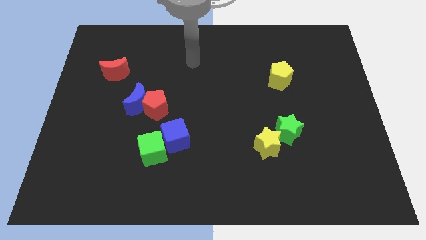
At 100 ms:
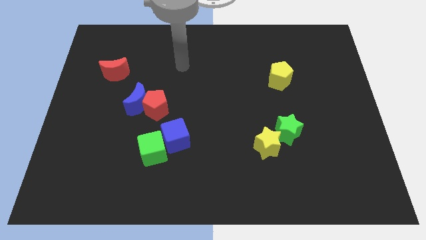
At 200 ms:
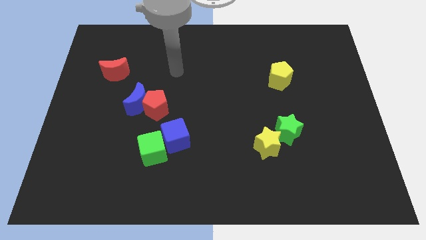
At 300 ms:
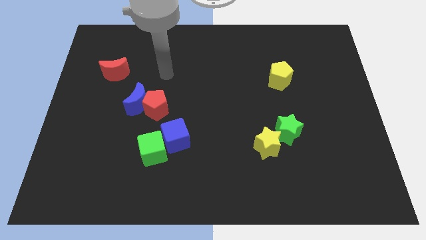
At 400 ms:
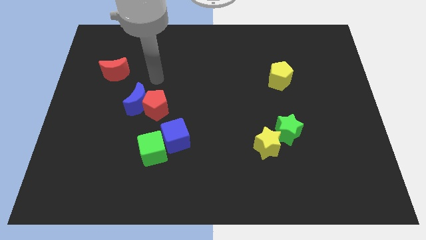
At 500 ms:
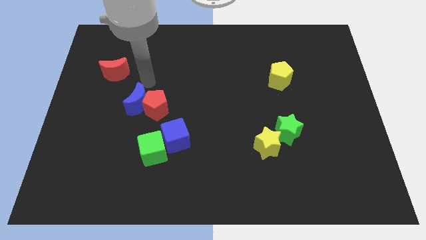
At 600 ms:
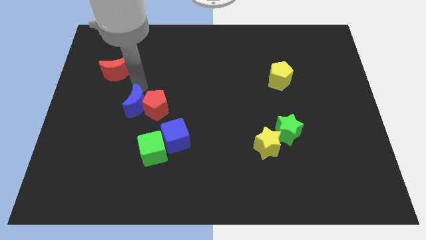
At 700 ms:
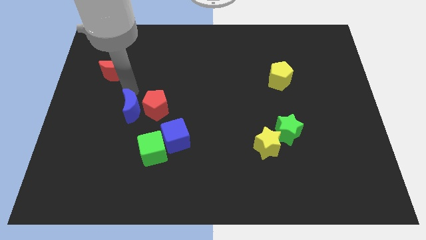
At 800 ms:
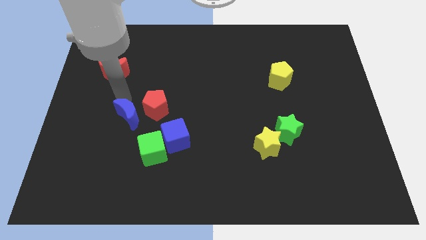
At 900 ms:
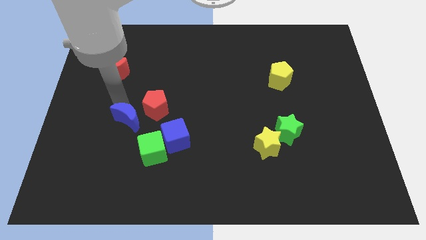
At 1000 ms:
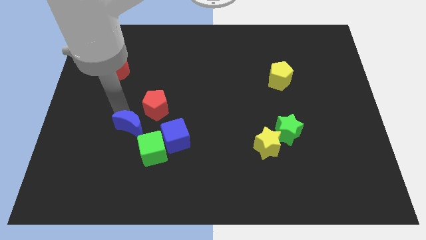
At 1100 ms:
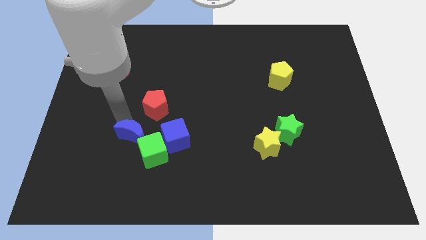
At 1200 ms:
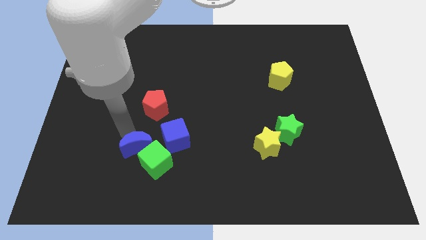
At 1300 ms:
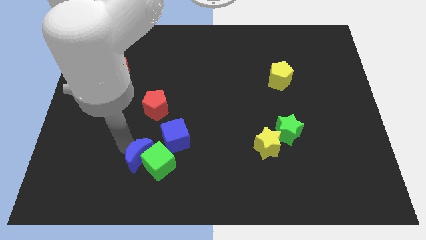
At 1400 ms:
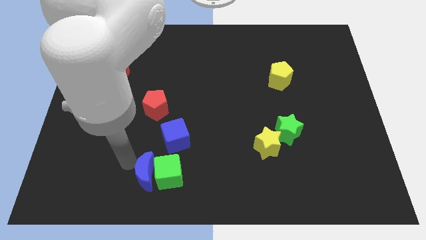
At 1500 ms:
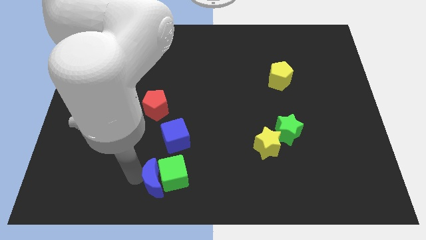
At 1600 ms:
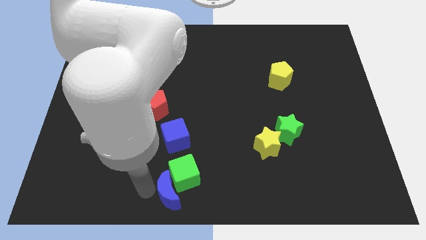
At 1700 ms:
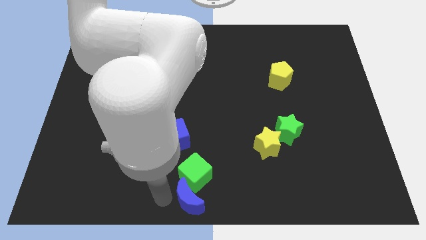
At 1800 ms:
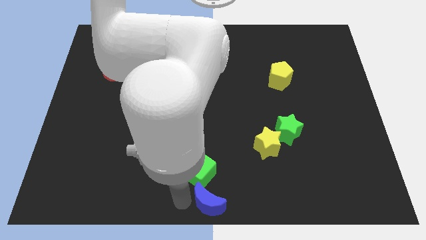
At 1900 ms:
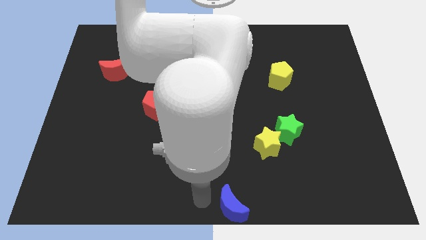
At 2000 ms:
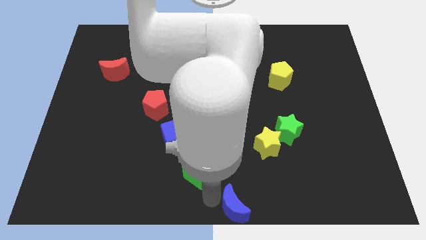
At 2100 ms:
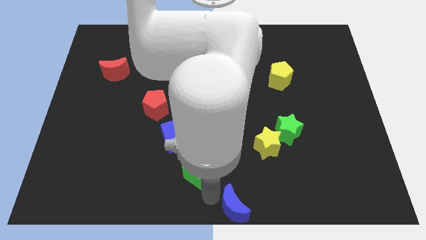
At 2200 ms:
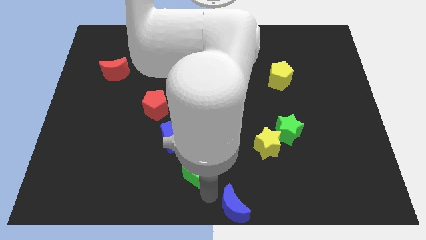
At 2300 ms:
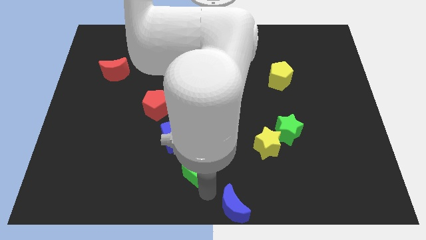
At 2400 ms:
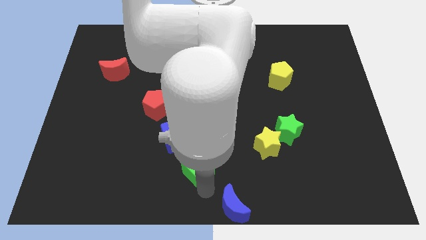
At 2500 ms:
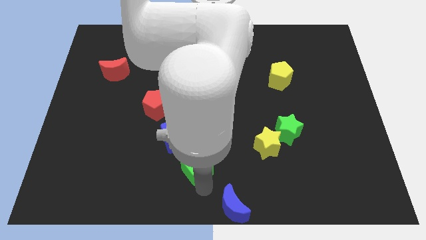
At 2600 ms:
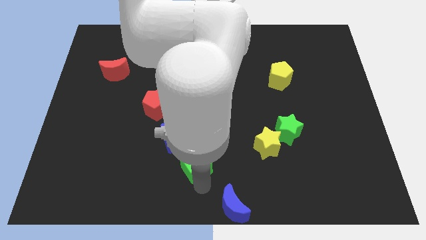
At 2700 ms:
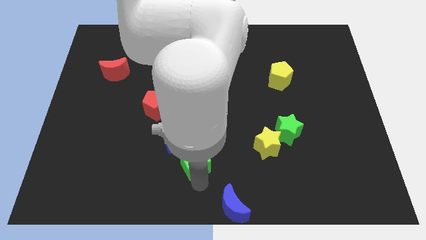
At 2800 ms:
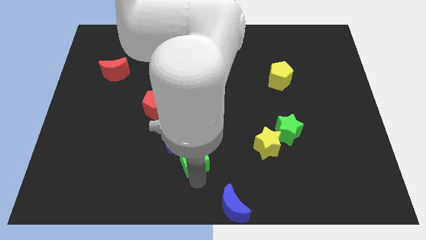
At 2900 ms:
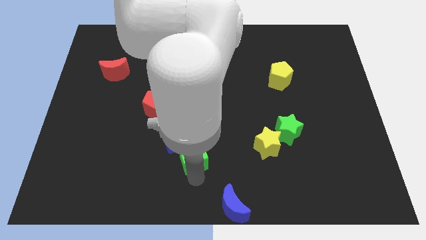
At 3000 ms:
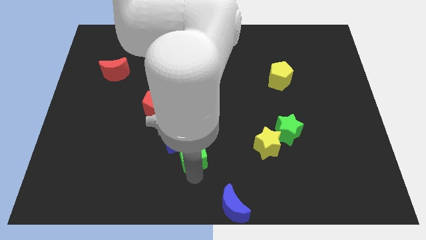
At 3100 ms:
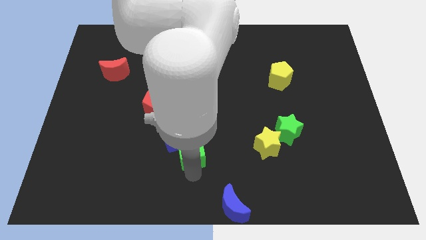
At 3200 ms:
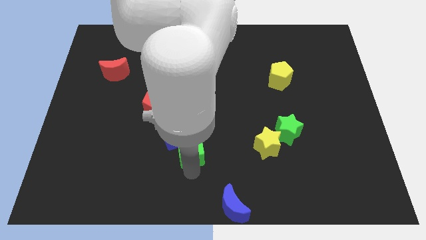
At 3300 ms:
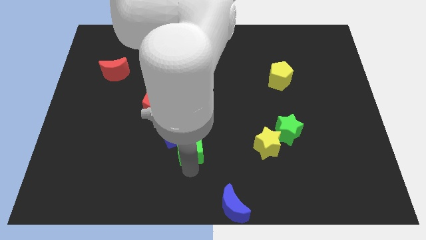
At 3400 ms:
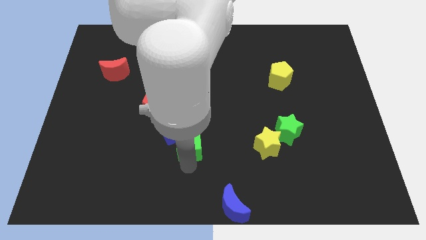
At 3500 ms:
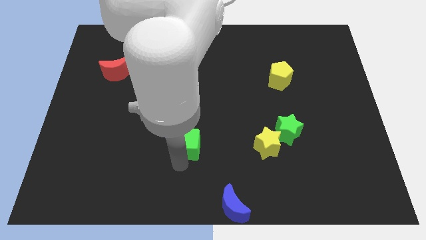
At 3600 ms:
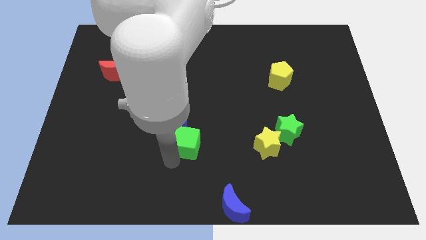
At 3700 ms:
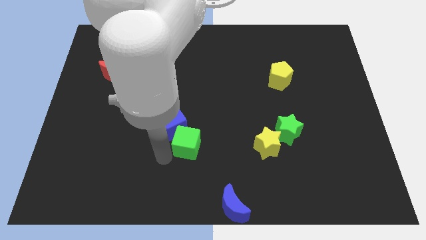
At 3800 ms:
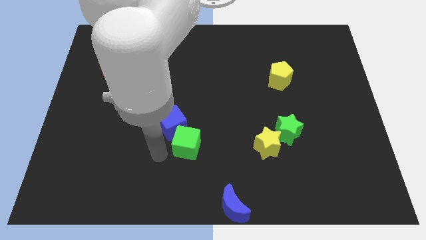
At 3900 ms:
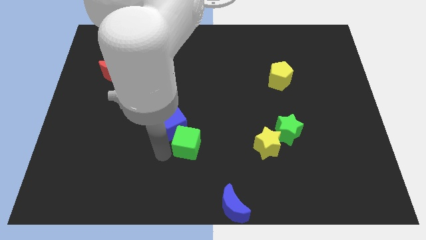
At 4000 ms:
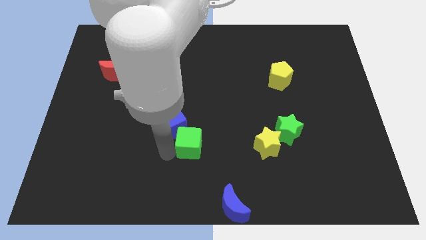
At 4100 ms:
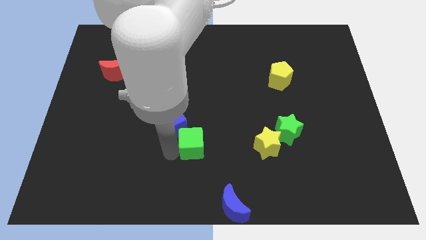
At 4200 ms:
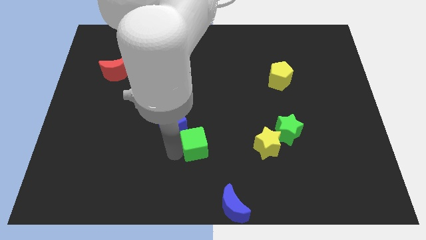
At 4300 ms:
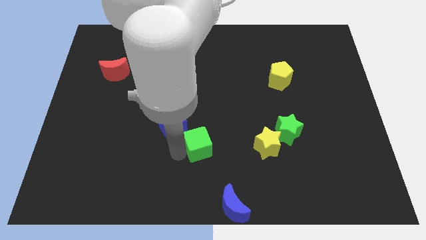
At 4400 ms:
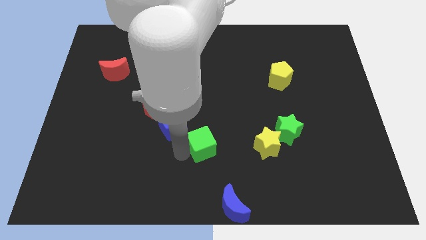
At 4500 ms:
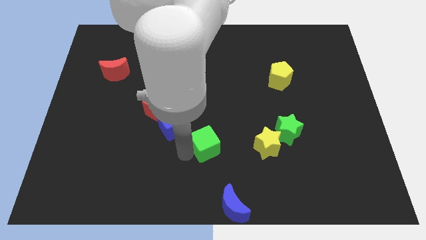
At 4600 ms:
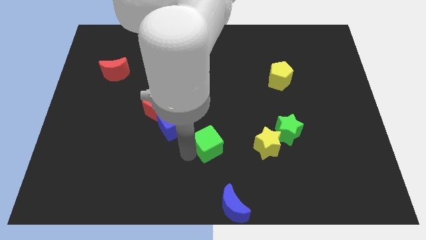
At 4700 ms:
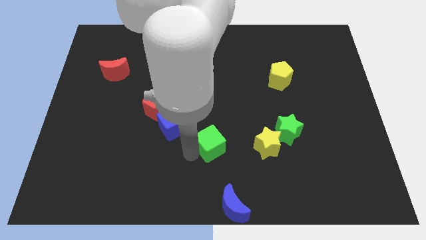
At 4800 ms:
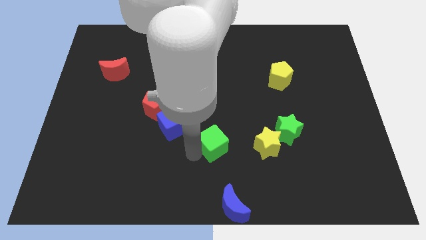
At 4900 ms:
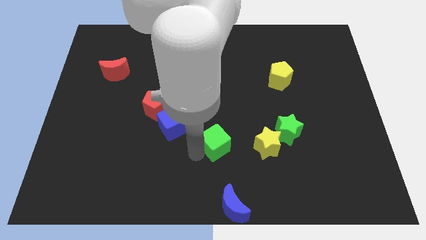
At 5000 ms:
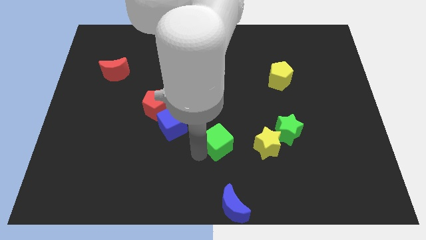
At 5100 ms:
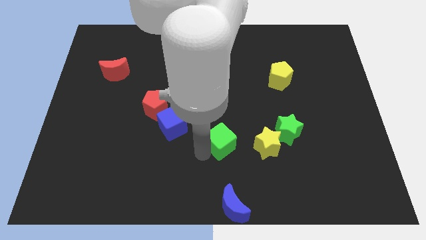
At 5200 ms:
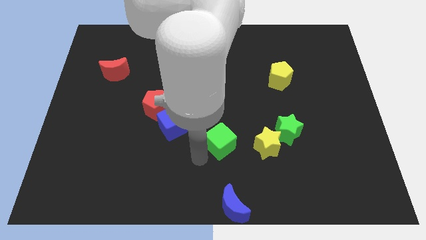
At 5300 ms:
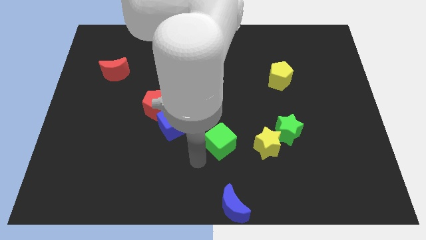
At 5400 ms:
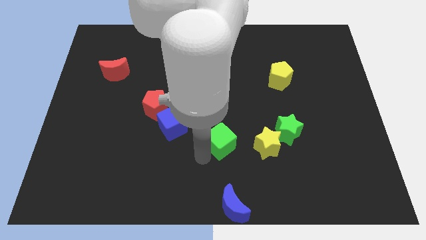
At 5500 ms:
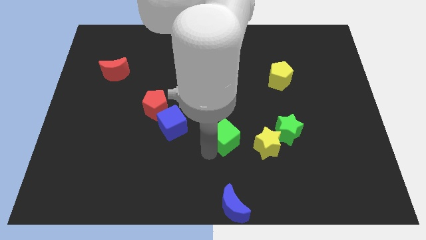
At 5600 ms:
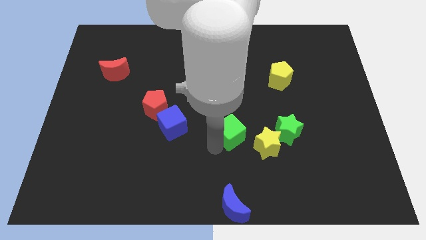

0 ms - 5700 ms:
move the green cube to the top left side of the yellow star
